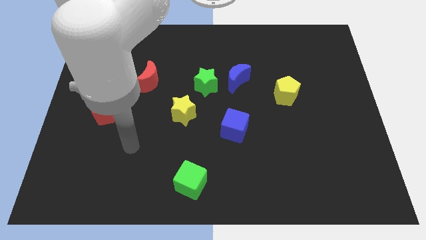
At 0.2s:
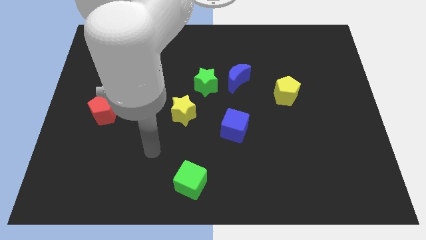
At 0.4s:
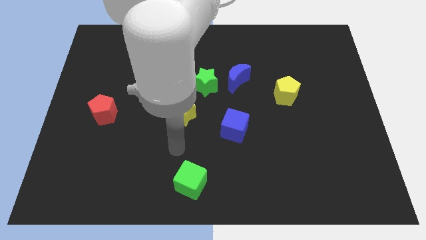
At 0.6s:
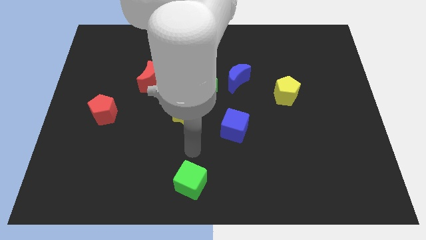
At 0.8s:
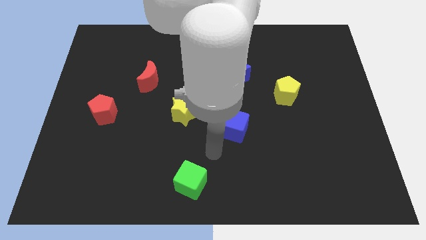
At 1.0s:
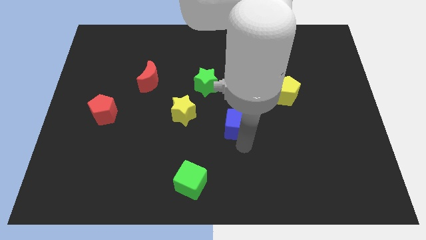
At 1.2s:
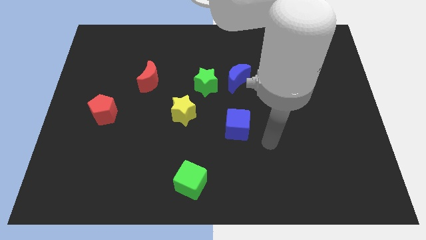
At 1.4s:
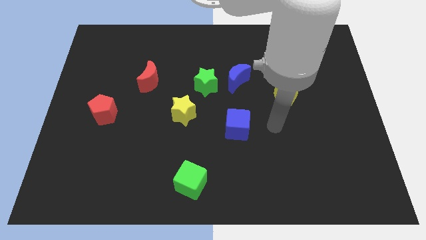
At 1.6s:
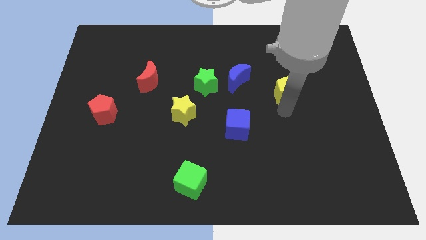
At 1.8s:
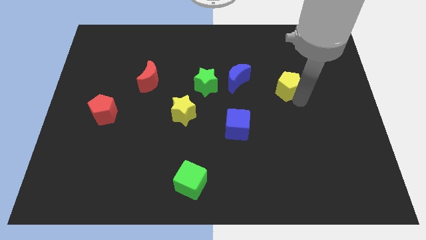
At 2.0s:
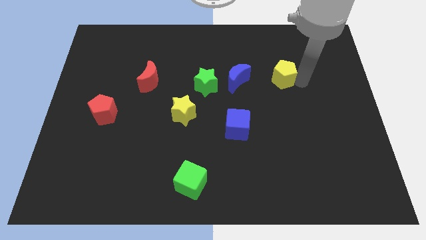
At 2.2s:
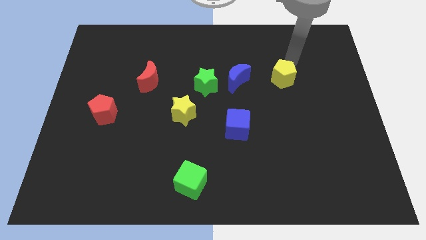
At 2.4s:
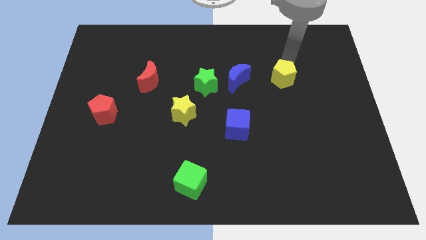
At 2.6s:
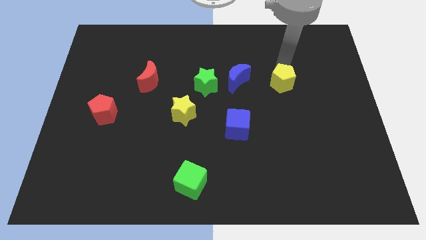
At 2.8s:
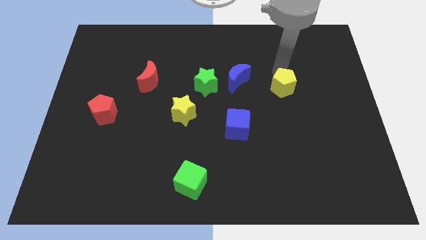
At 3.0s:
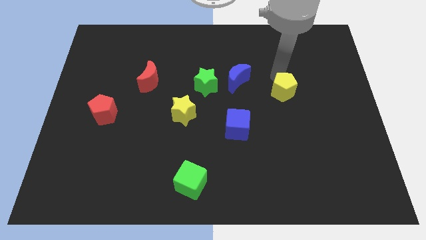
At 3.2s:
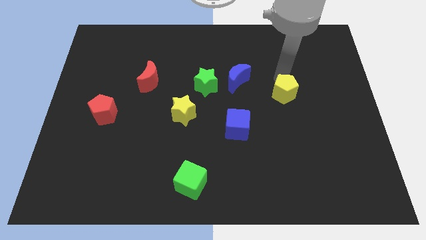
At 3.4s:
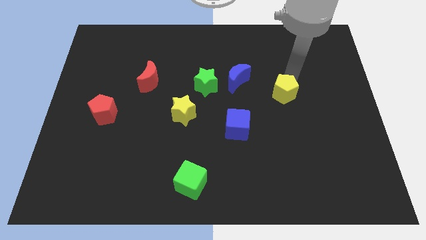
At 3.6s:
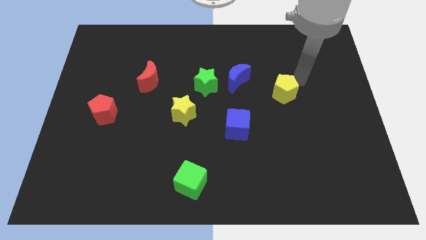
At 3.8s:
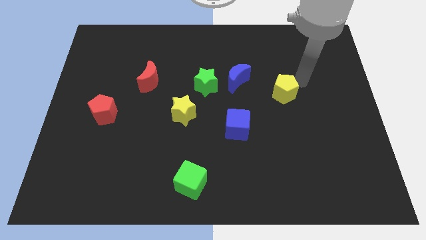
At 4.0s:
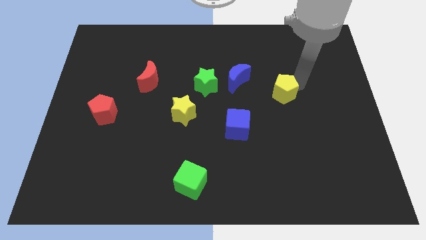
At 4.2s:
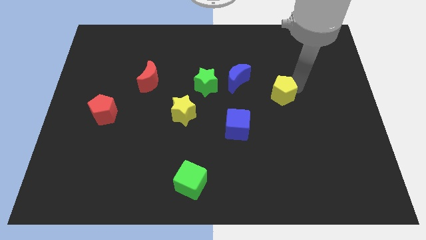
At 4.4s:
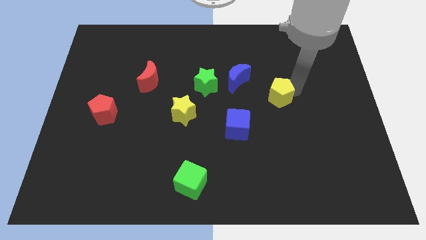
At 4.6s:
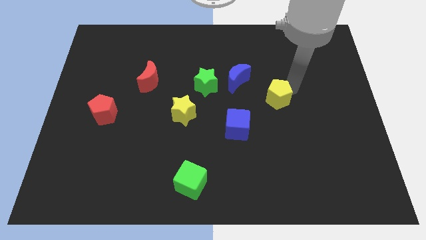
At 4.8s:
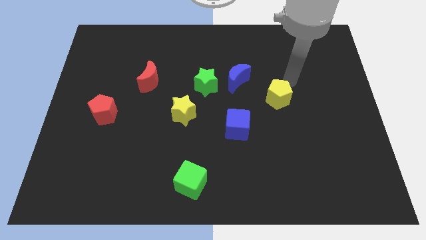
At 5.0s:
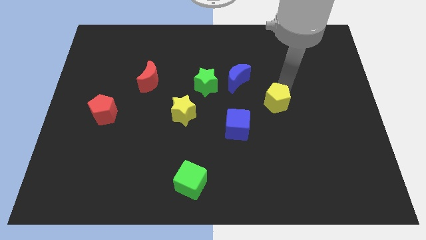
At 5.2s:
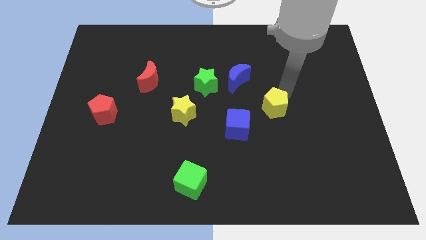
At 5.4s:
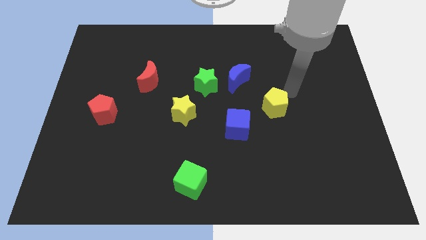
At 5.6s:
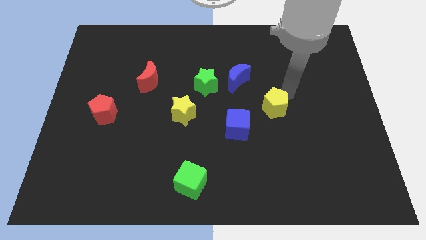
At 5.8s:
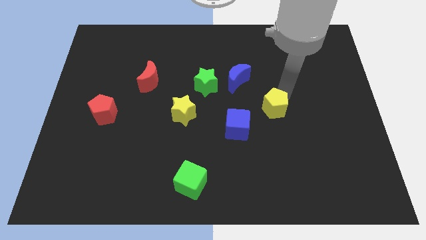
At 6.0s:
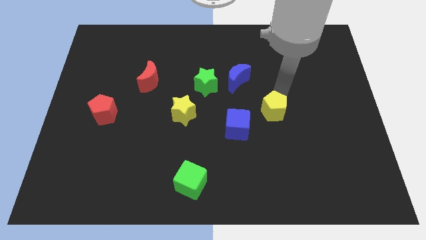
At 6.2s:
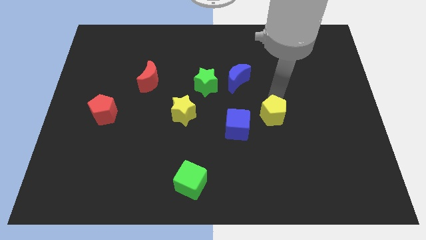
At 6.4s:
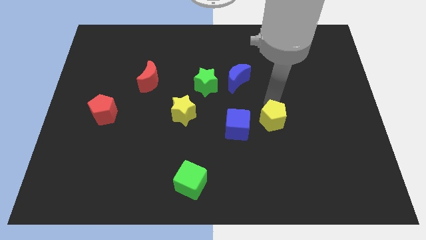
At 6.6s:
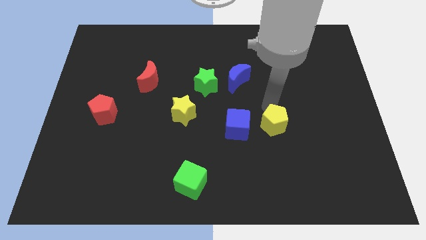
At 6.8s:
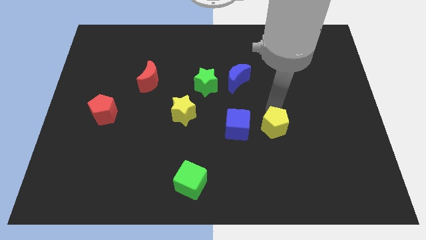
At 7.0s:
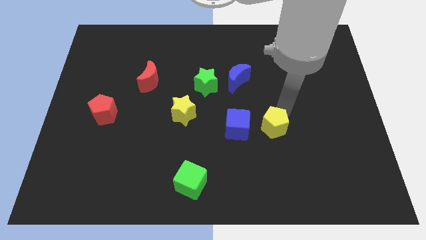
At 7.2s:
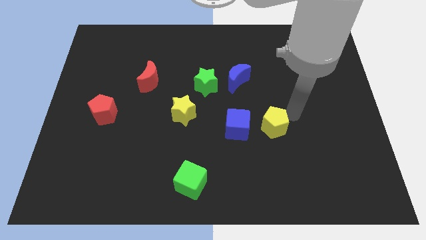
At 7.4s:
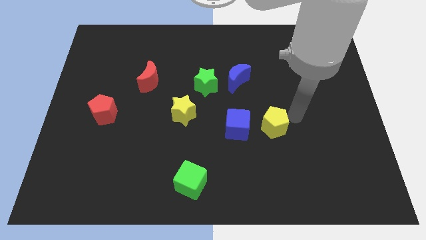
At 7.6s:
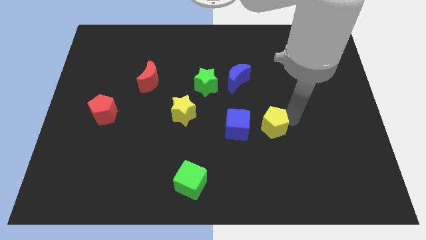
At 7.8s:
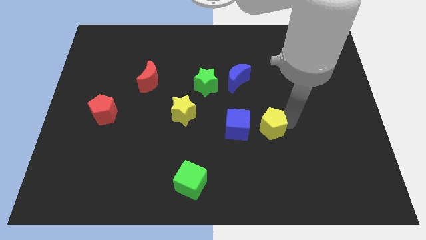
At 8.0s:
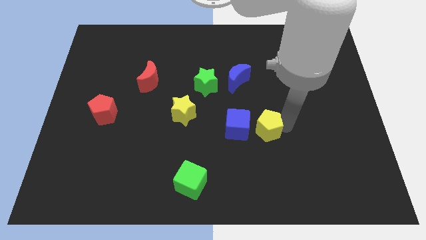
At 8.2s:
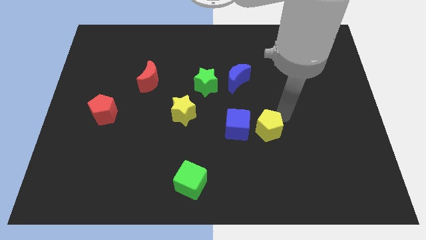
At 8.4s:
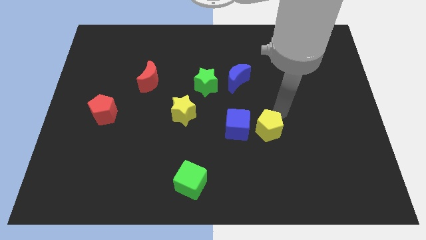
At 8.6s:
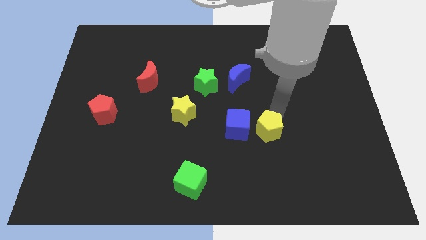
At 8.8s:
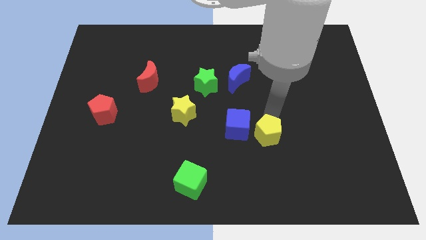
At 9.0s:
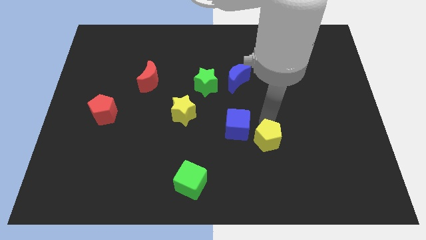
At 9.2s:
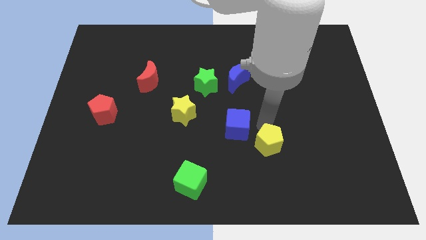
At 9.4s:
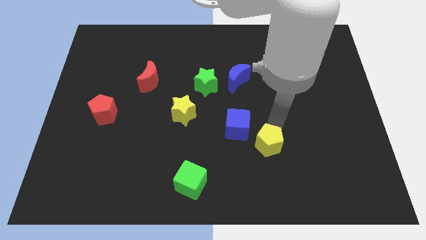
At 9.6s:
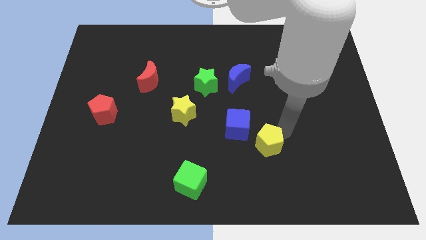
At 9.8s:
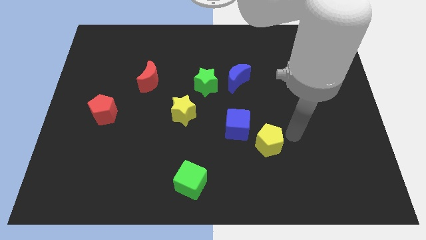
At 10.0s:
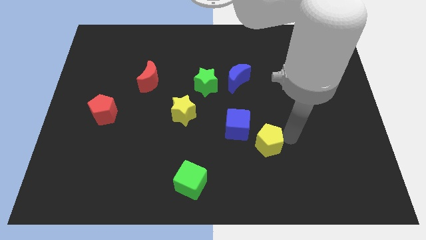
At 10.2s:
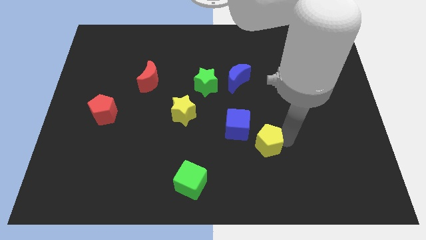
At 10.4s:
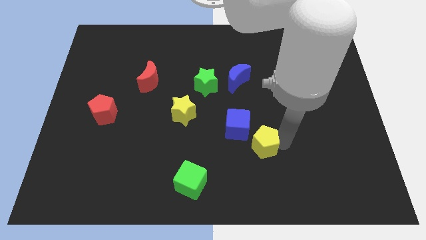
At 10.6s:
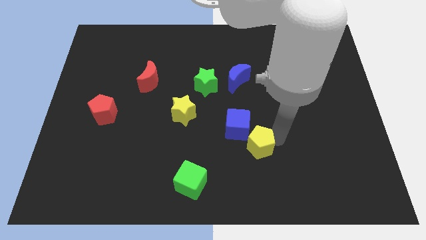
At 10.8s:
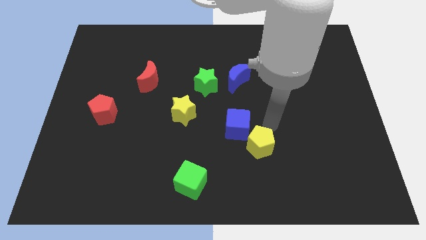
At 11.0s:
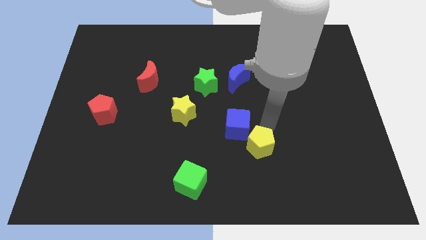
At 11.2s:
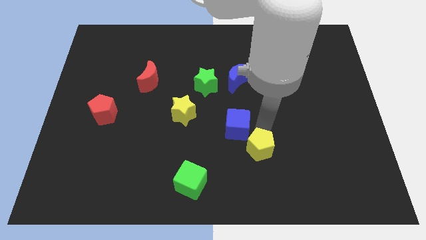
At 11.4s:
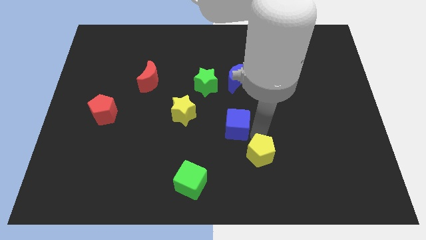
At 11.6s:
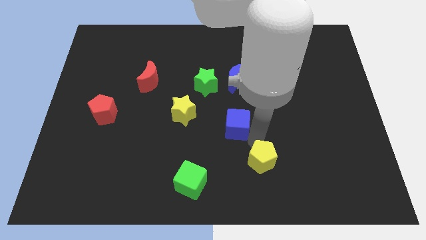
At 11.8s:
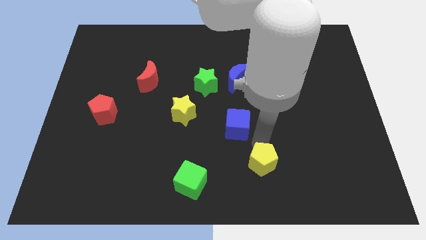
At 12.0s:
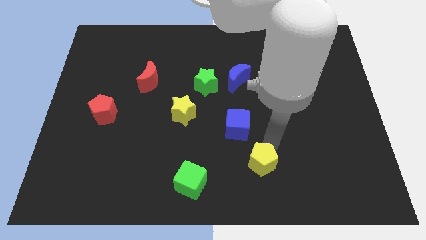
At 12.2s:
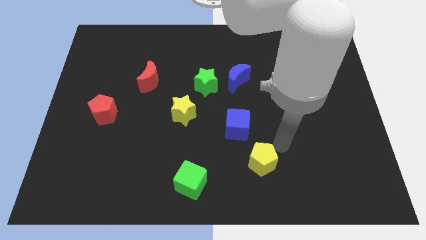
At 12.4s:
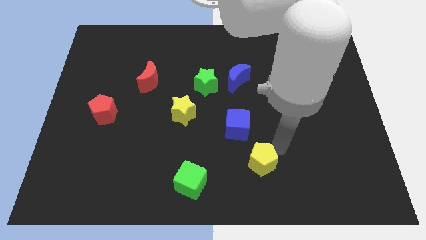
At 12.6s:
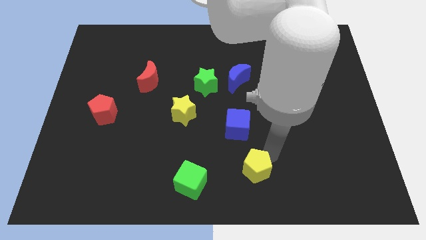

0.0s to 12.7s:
move the yellow pentagon to the bottom
